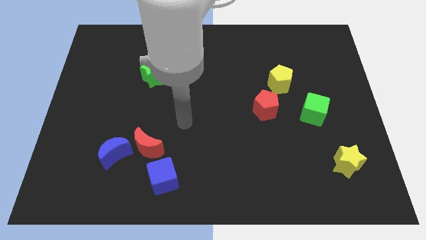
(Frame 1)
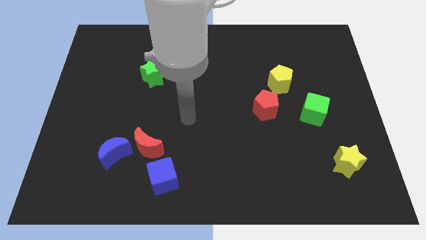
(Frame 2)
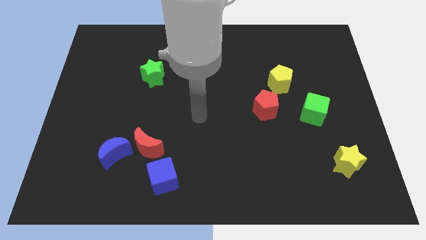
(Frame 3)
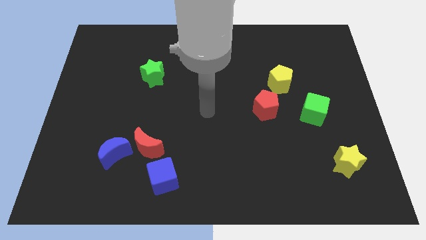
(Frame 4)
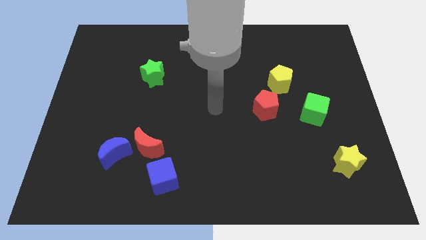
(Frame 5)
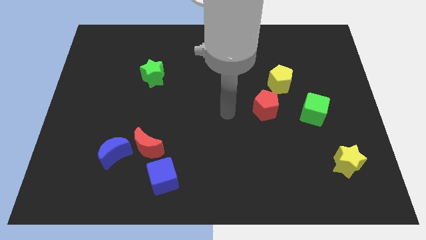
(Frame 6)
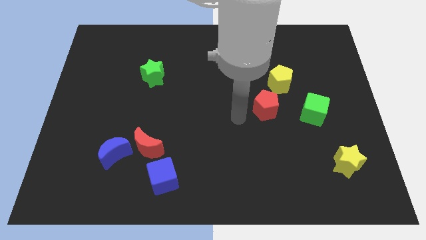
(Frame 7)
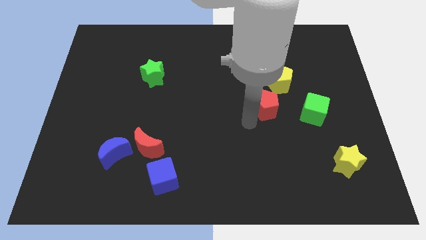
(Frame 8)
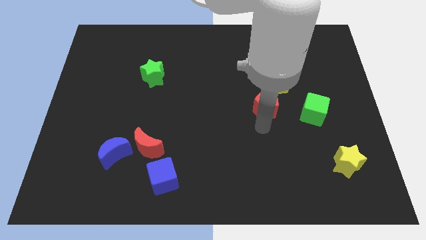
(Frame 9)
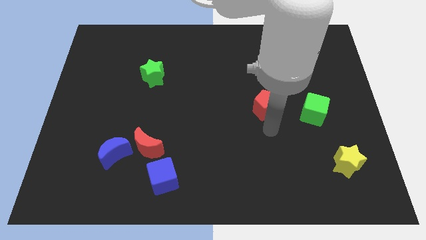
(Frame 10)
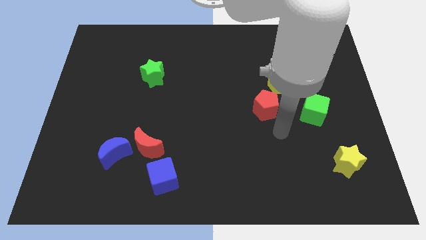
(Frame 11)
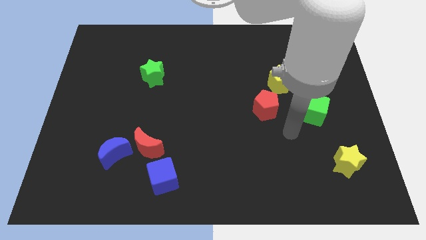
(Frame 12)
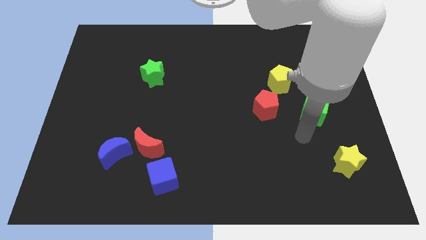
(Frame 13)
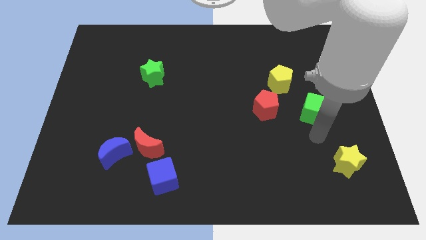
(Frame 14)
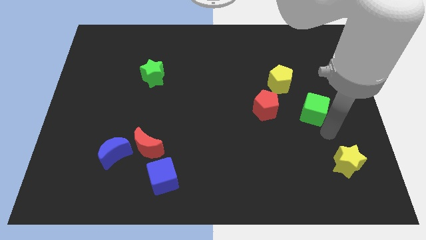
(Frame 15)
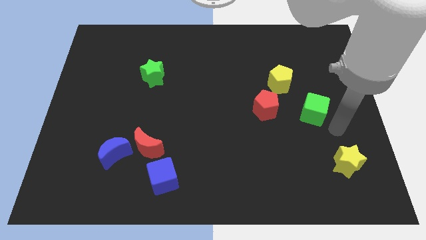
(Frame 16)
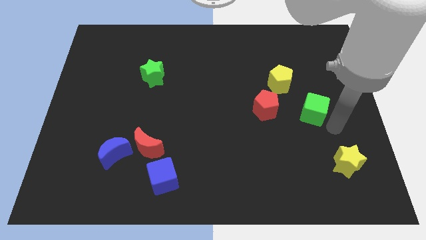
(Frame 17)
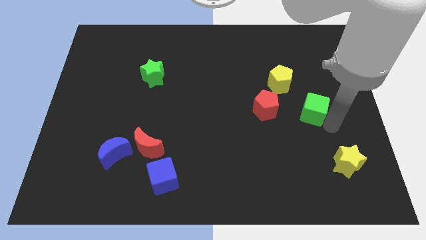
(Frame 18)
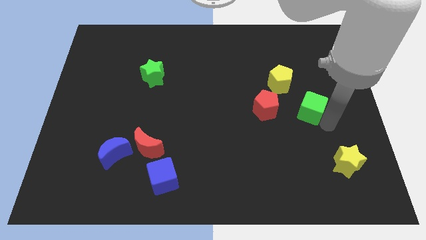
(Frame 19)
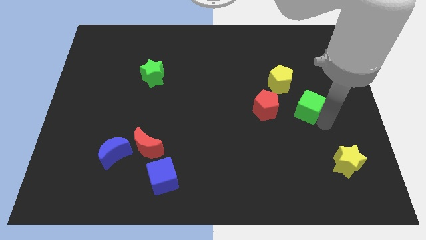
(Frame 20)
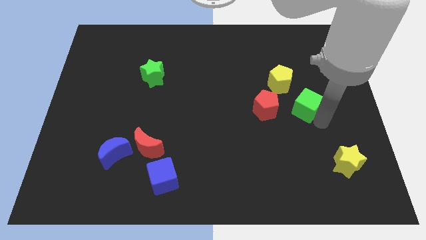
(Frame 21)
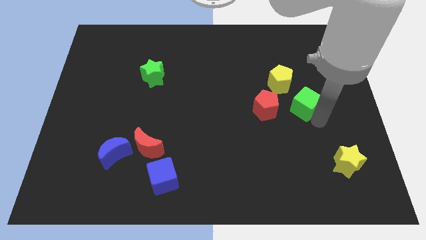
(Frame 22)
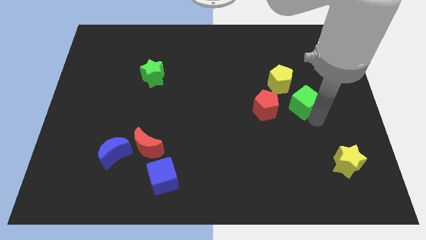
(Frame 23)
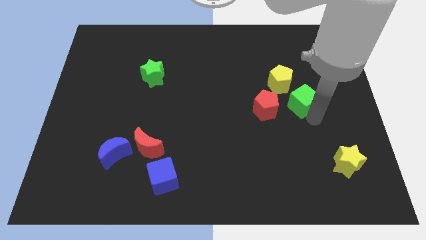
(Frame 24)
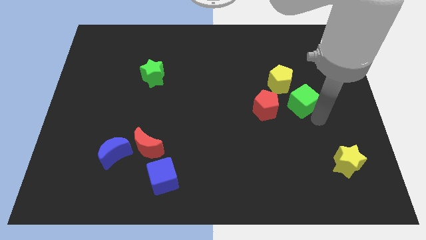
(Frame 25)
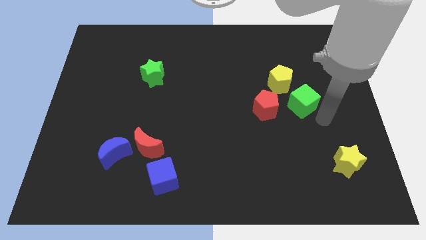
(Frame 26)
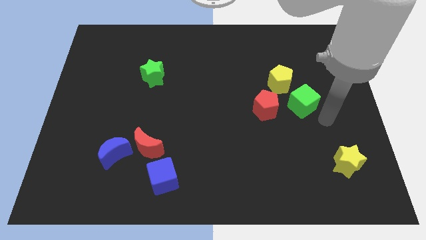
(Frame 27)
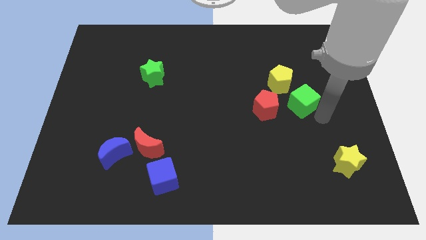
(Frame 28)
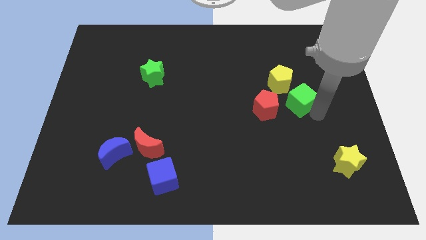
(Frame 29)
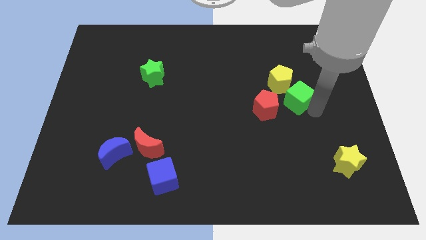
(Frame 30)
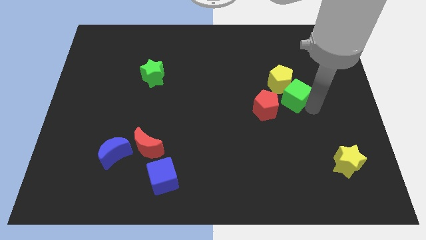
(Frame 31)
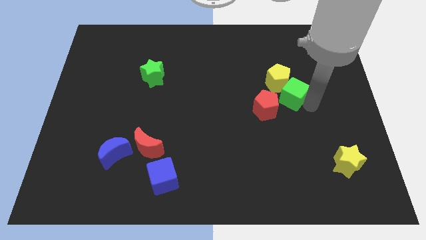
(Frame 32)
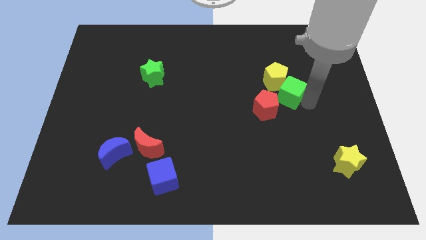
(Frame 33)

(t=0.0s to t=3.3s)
slide the green cube a little up and left

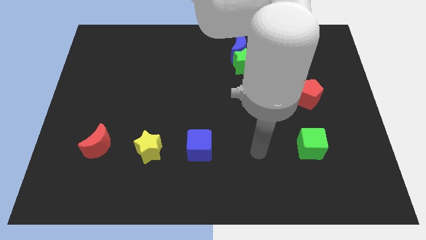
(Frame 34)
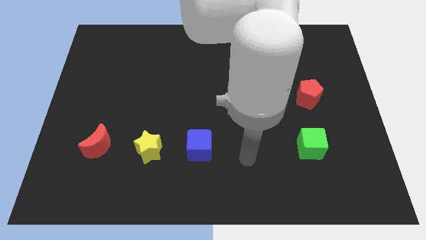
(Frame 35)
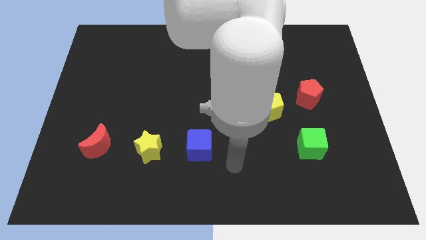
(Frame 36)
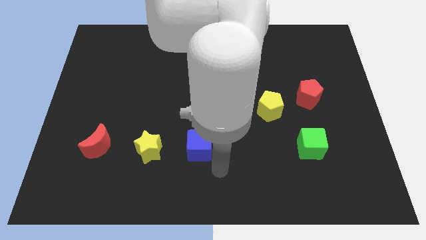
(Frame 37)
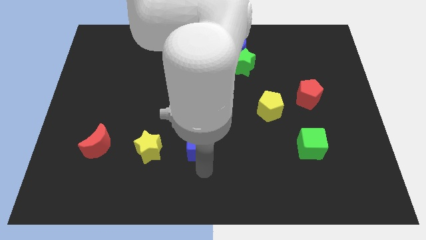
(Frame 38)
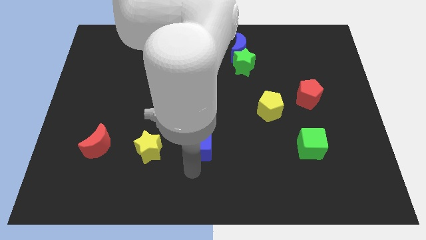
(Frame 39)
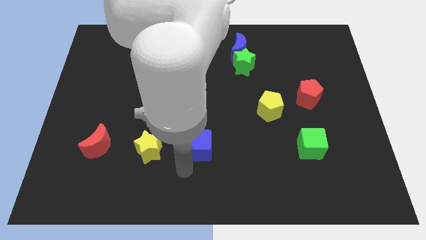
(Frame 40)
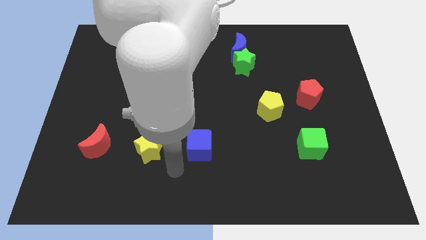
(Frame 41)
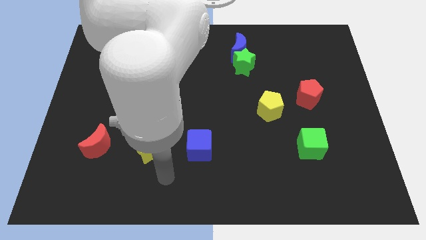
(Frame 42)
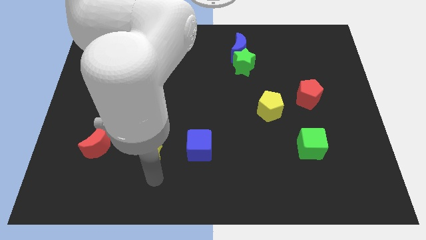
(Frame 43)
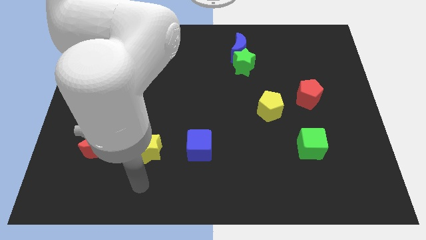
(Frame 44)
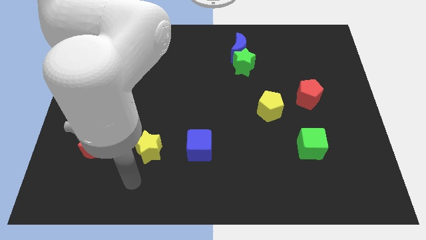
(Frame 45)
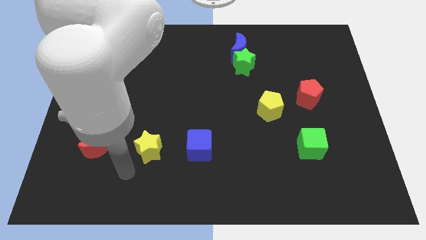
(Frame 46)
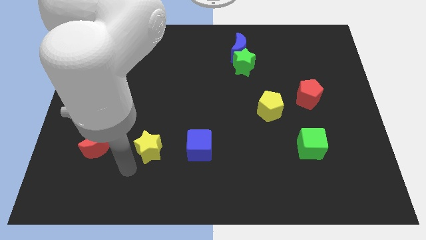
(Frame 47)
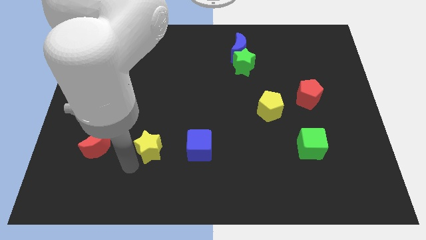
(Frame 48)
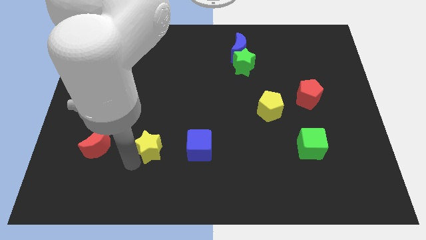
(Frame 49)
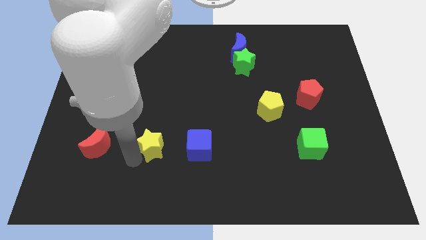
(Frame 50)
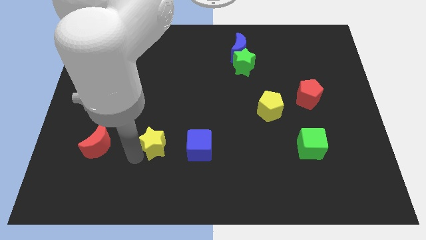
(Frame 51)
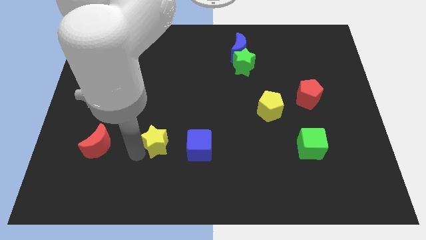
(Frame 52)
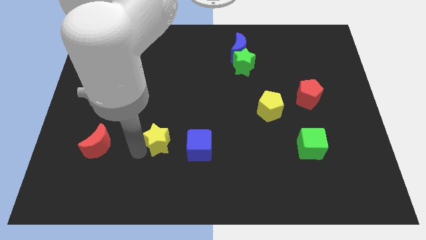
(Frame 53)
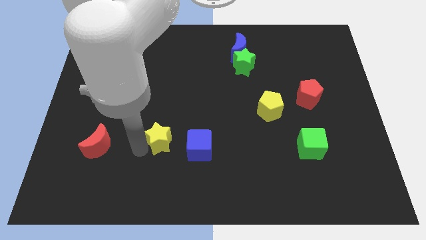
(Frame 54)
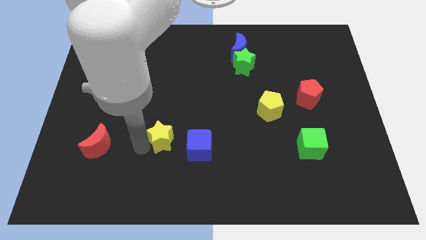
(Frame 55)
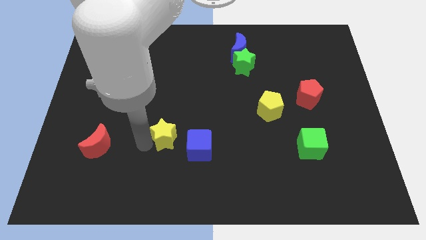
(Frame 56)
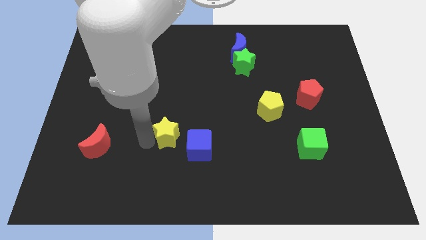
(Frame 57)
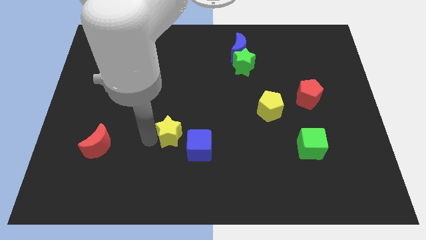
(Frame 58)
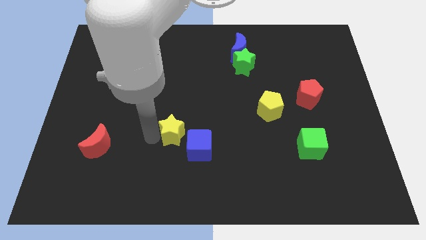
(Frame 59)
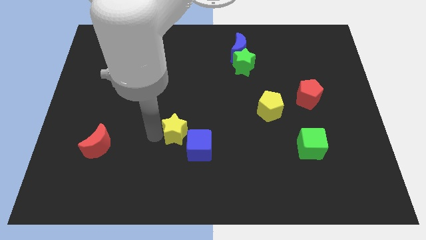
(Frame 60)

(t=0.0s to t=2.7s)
slightly push the yellow star up and right diagonally

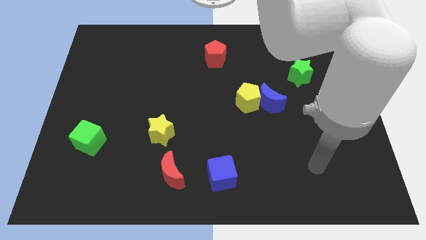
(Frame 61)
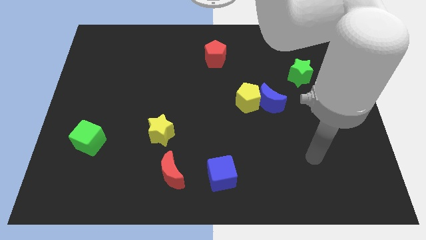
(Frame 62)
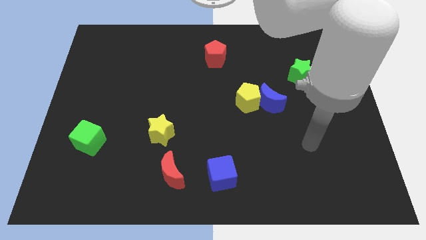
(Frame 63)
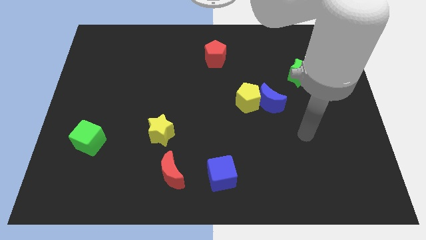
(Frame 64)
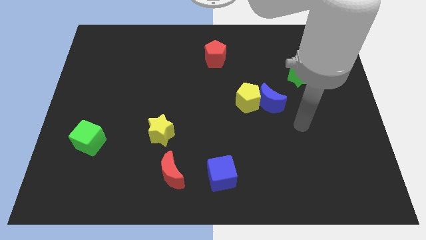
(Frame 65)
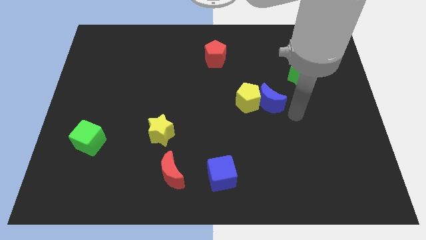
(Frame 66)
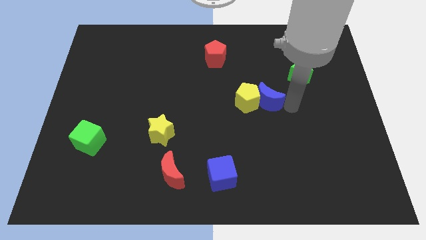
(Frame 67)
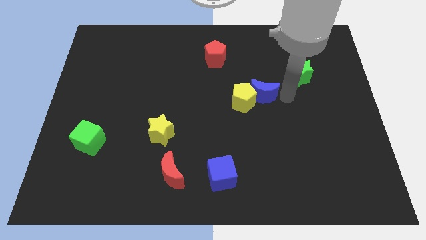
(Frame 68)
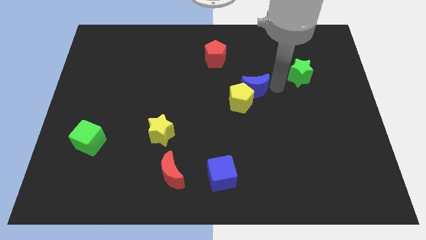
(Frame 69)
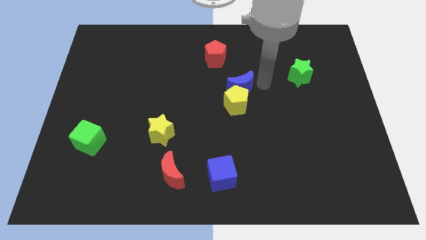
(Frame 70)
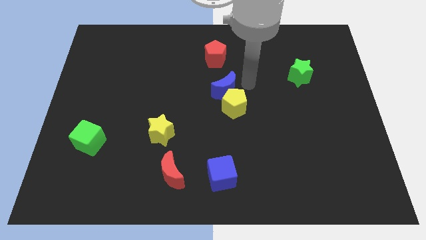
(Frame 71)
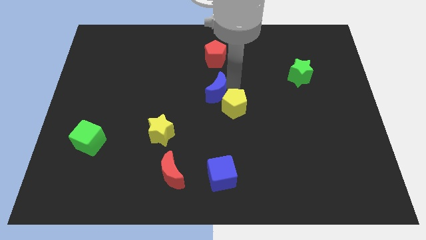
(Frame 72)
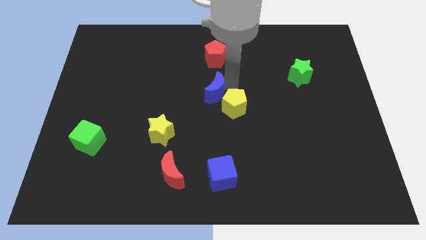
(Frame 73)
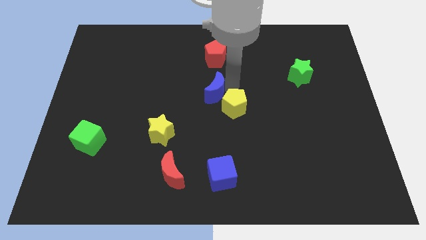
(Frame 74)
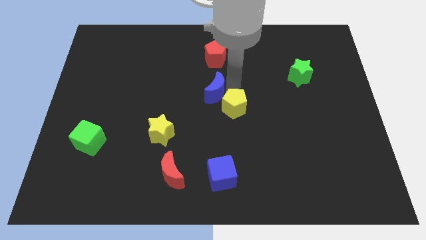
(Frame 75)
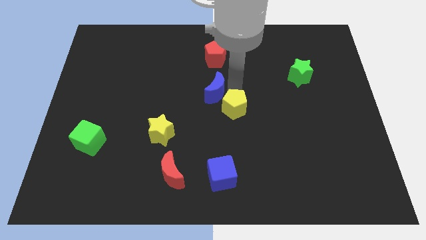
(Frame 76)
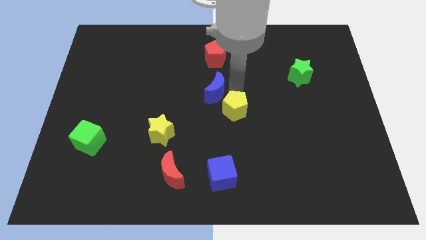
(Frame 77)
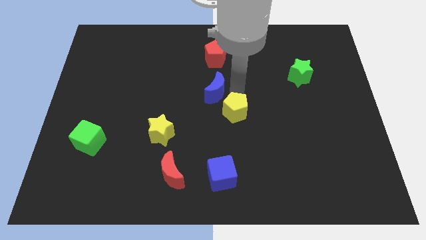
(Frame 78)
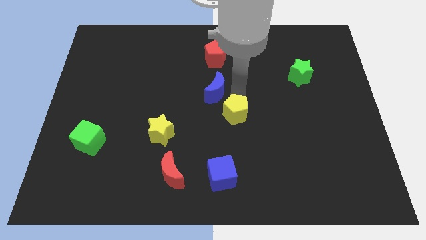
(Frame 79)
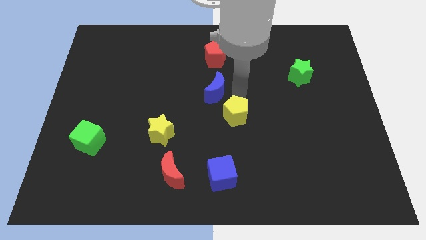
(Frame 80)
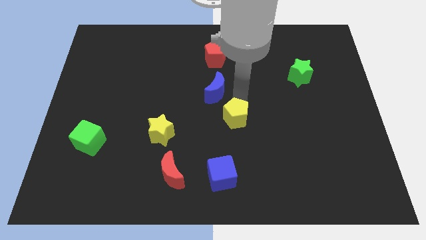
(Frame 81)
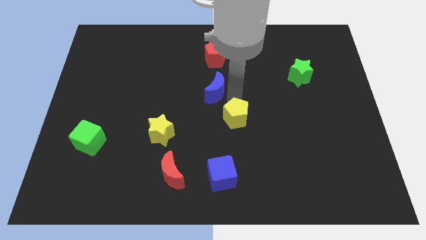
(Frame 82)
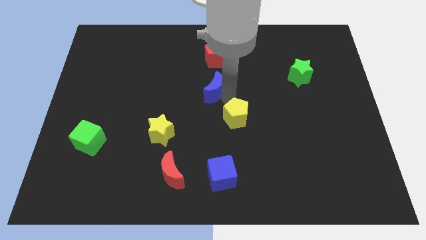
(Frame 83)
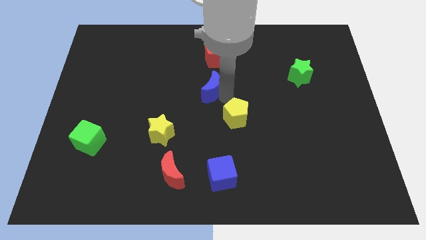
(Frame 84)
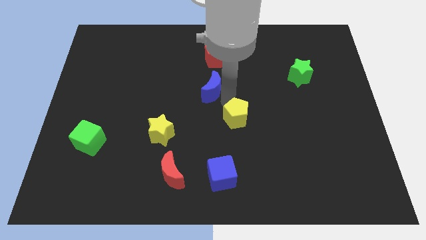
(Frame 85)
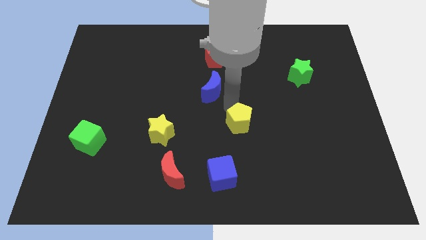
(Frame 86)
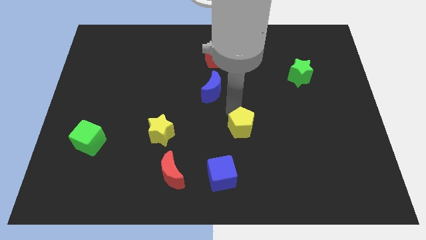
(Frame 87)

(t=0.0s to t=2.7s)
slightly slide the yellow pentagon downwards
